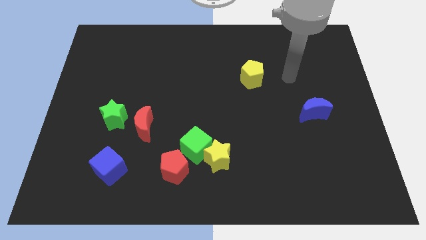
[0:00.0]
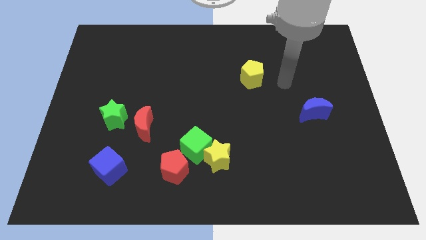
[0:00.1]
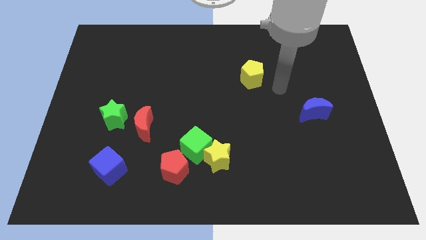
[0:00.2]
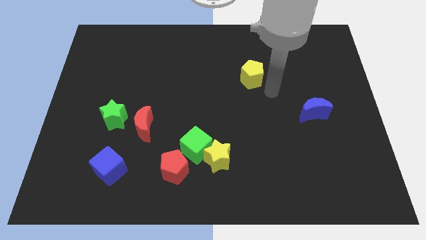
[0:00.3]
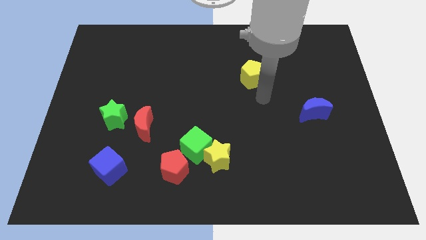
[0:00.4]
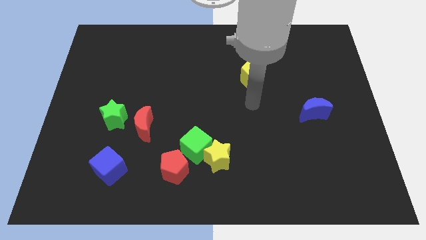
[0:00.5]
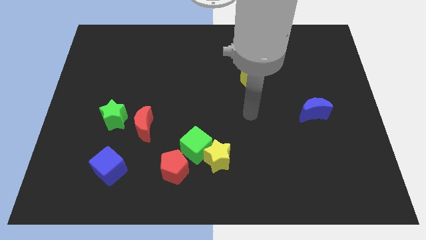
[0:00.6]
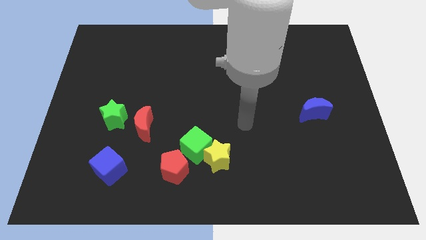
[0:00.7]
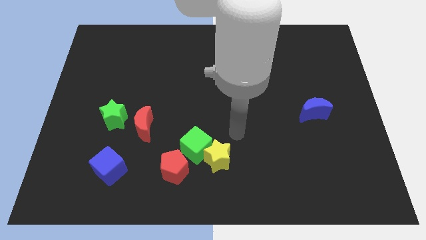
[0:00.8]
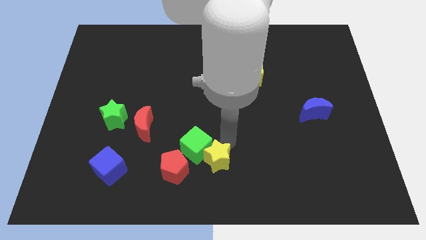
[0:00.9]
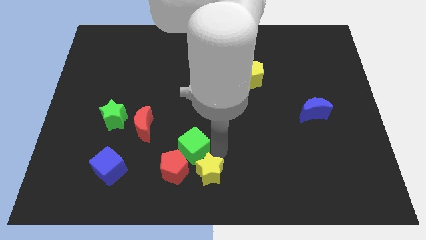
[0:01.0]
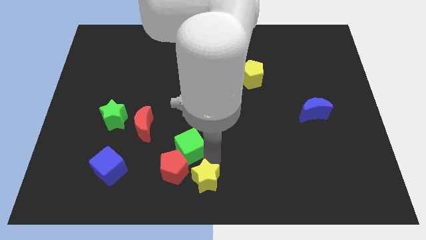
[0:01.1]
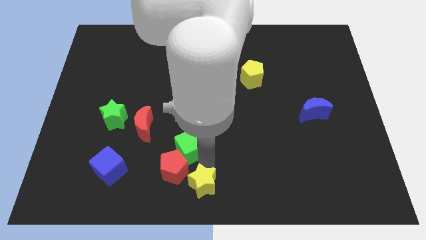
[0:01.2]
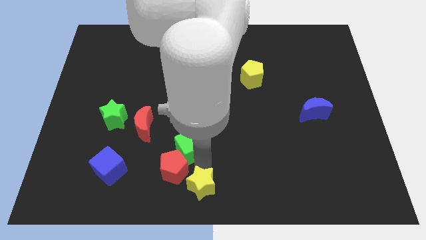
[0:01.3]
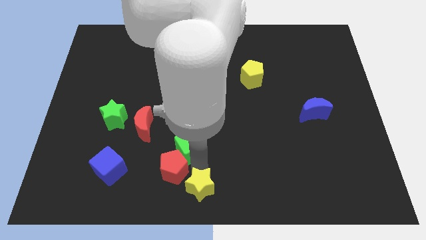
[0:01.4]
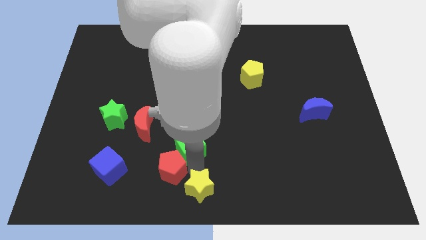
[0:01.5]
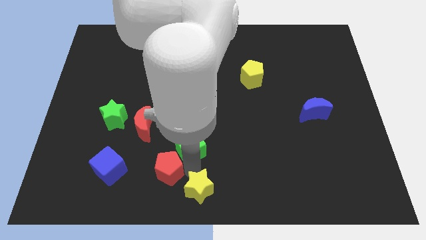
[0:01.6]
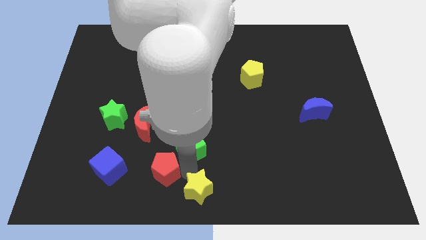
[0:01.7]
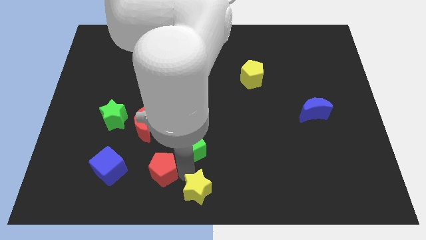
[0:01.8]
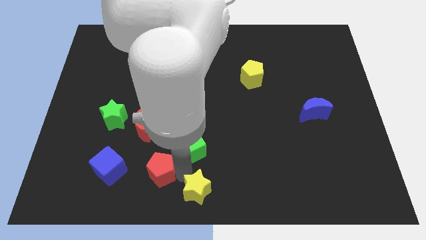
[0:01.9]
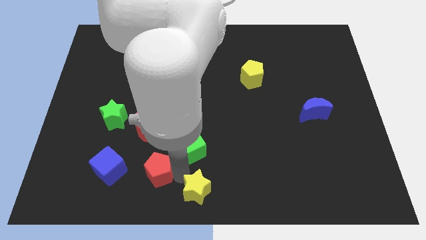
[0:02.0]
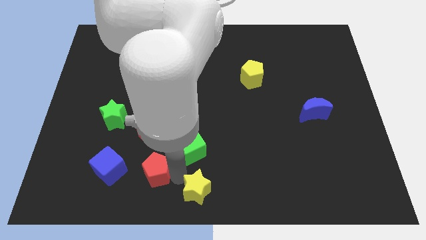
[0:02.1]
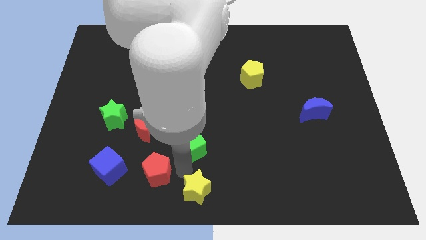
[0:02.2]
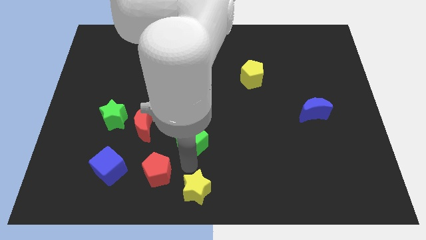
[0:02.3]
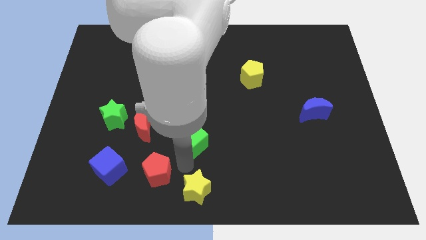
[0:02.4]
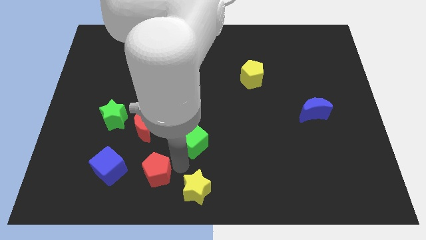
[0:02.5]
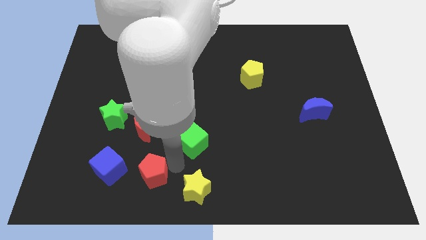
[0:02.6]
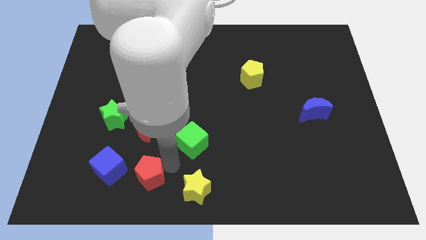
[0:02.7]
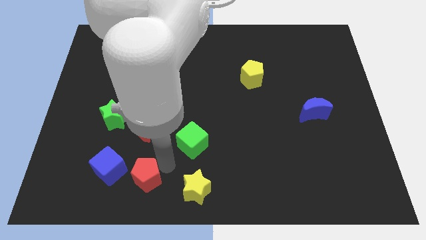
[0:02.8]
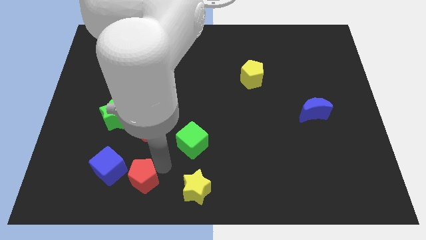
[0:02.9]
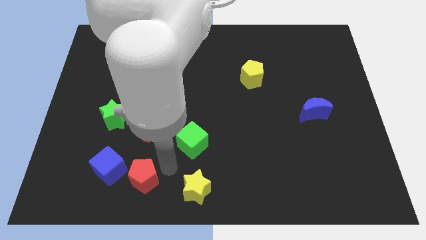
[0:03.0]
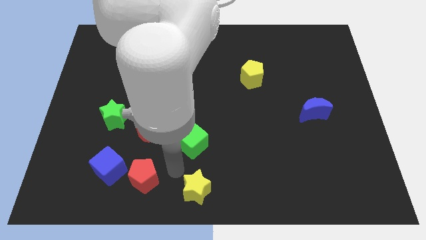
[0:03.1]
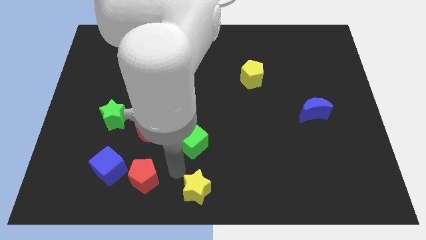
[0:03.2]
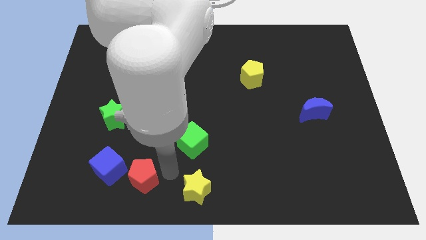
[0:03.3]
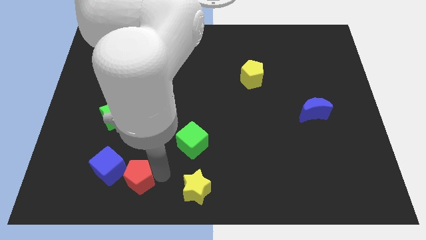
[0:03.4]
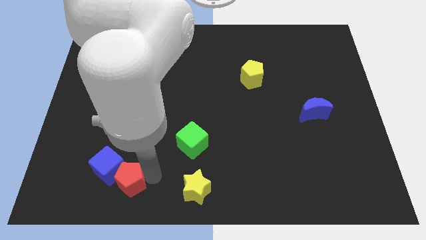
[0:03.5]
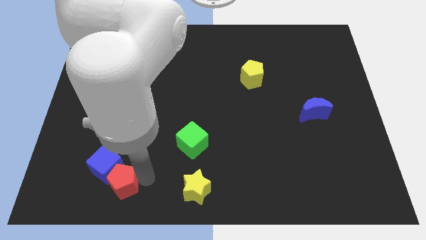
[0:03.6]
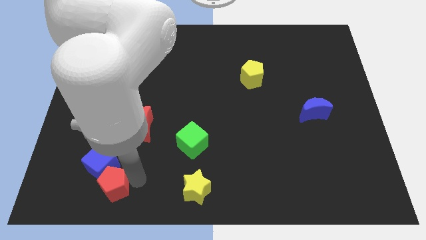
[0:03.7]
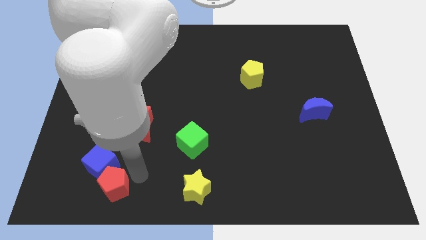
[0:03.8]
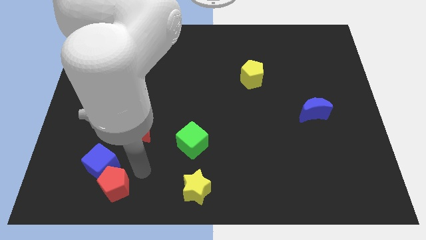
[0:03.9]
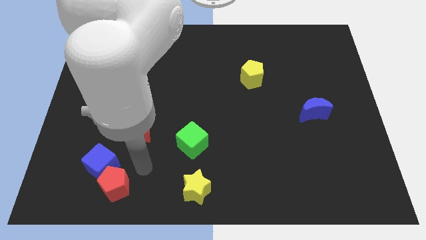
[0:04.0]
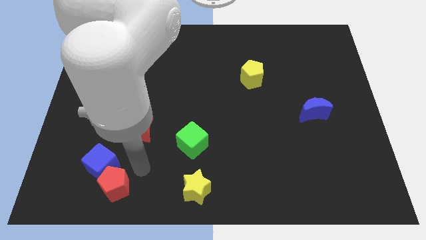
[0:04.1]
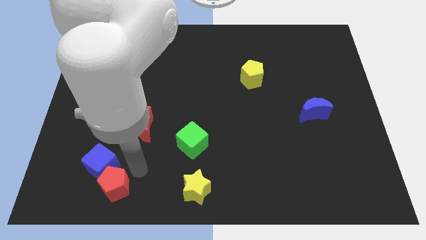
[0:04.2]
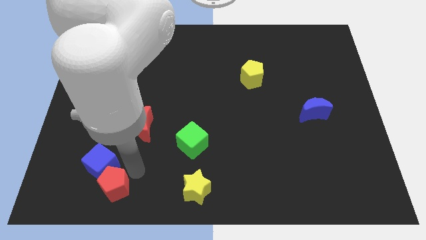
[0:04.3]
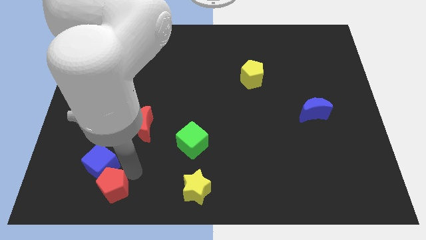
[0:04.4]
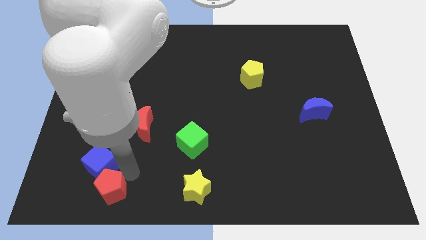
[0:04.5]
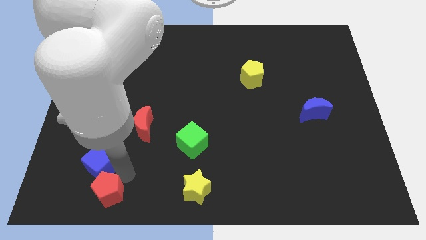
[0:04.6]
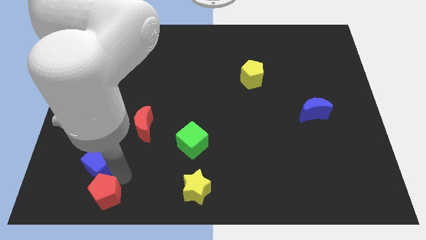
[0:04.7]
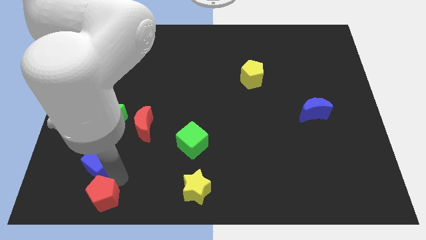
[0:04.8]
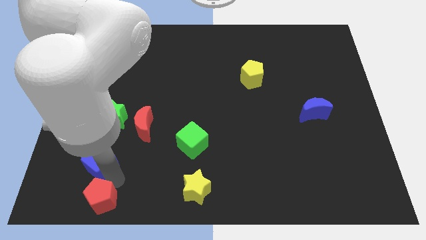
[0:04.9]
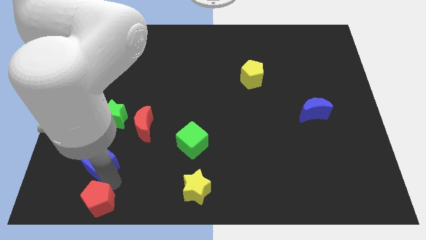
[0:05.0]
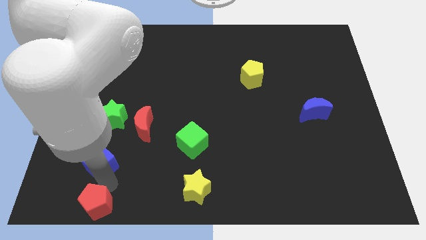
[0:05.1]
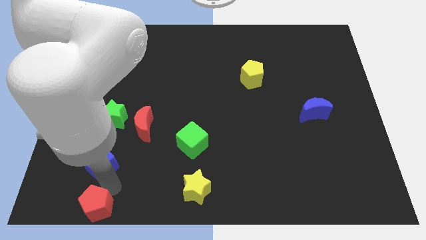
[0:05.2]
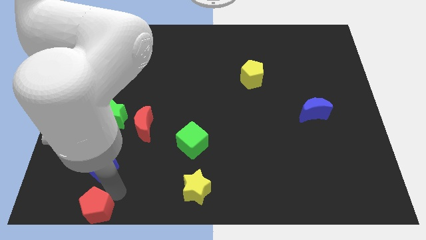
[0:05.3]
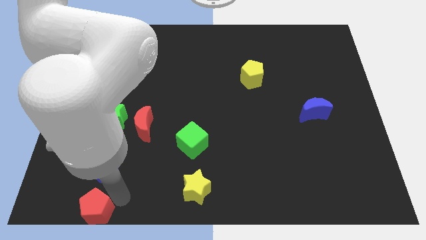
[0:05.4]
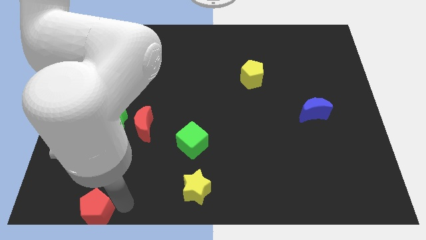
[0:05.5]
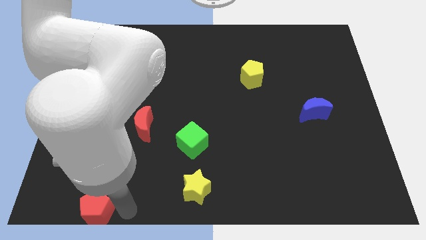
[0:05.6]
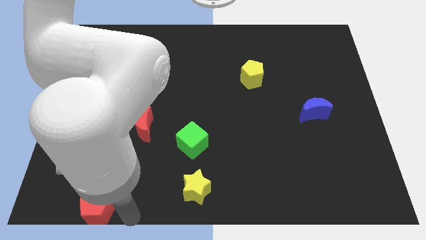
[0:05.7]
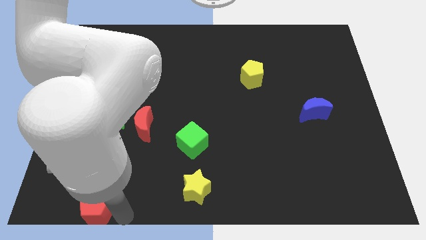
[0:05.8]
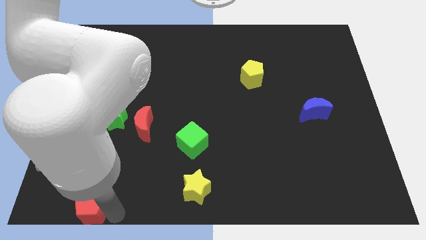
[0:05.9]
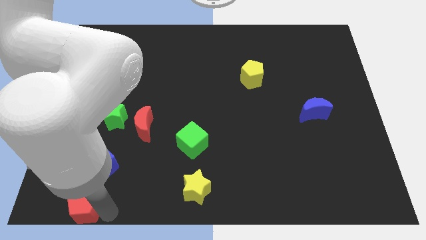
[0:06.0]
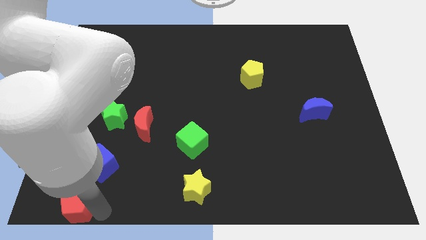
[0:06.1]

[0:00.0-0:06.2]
push the red pentagon to the bottom left of the board

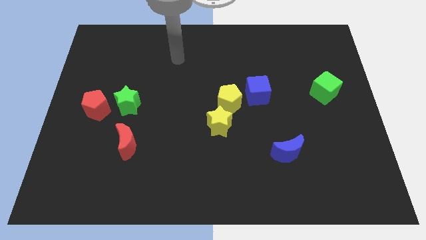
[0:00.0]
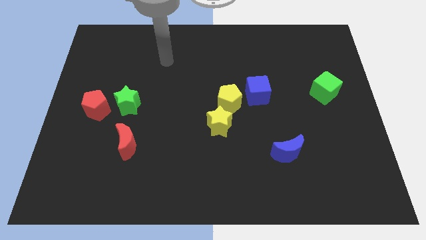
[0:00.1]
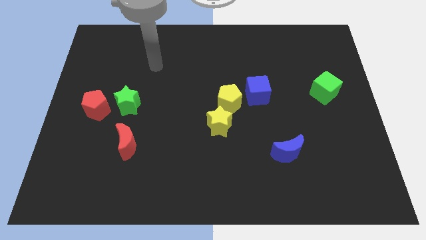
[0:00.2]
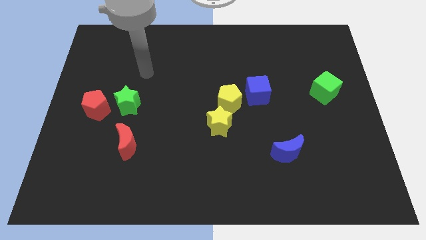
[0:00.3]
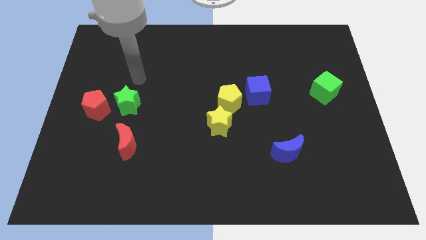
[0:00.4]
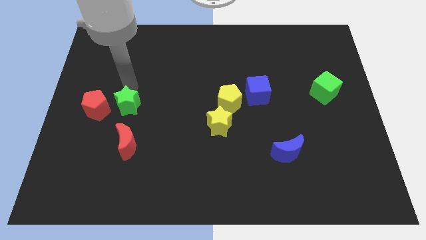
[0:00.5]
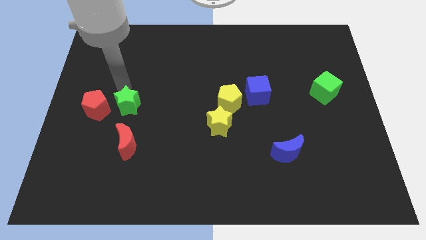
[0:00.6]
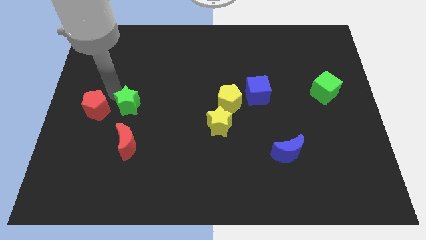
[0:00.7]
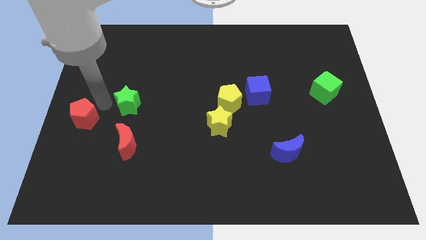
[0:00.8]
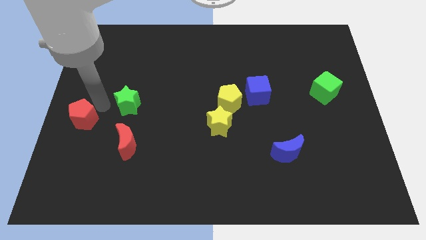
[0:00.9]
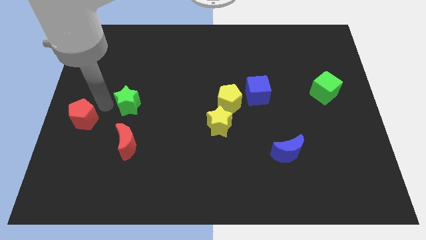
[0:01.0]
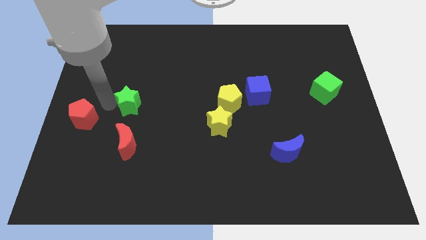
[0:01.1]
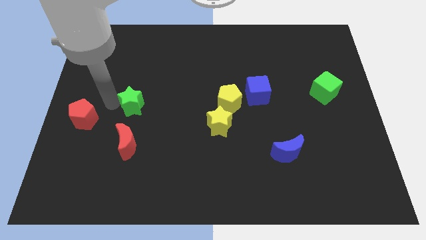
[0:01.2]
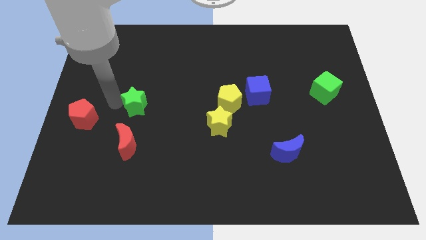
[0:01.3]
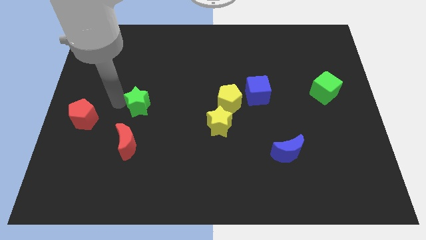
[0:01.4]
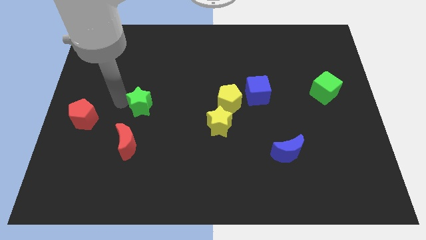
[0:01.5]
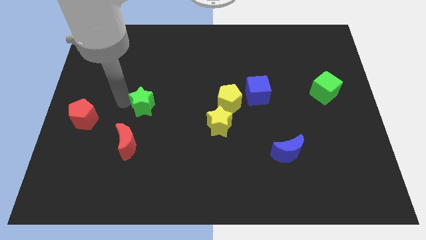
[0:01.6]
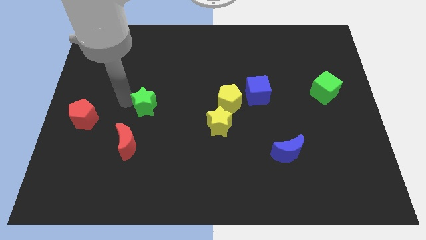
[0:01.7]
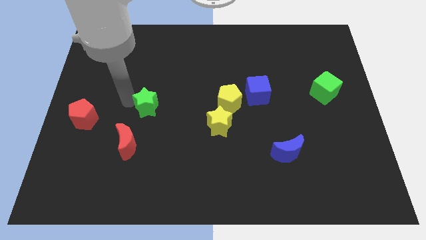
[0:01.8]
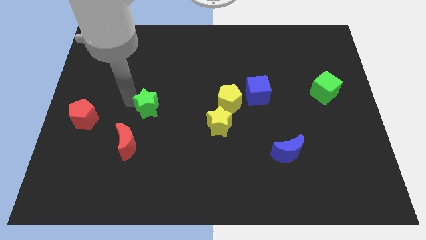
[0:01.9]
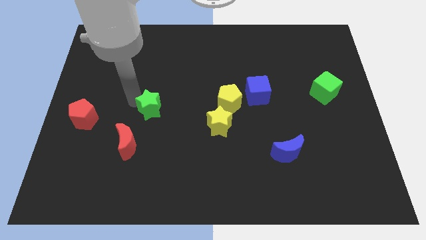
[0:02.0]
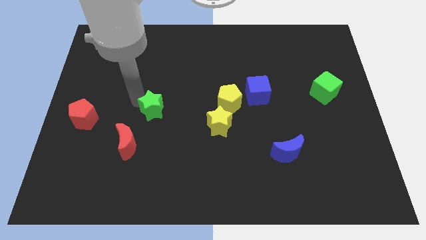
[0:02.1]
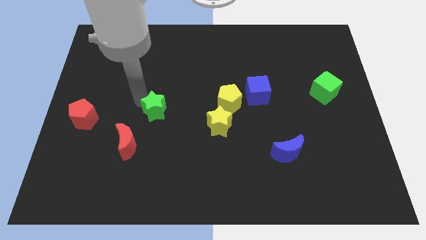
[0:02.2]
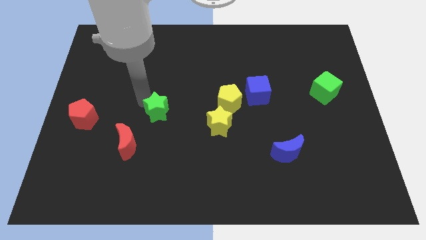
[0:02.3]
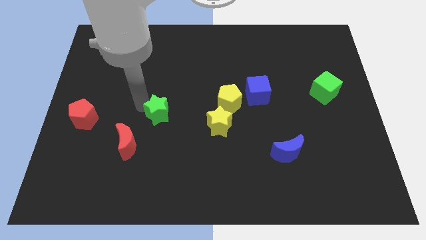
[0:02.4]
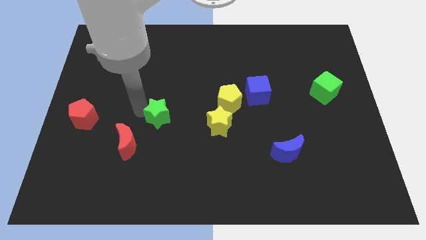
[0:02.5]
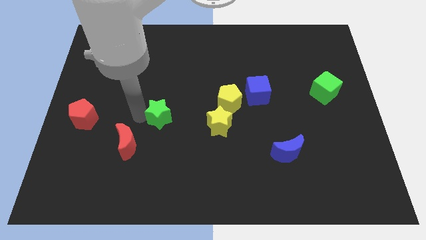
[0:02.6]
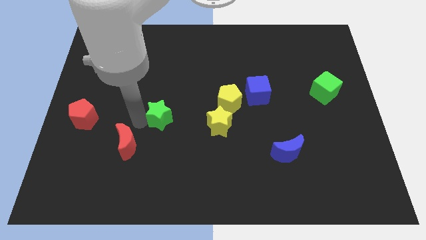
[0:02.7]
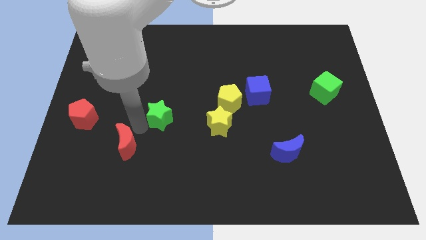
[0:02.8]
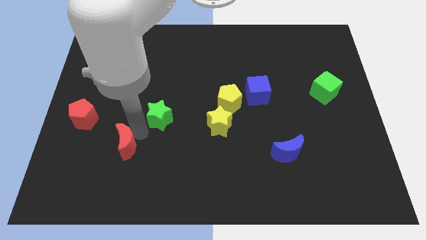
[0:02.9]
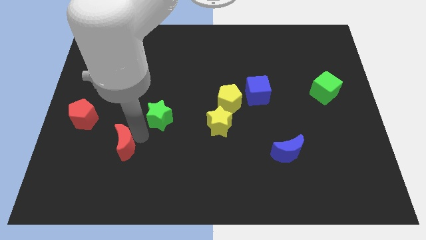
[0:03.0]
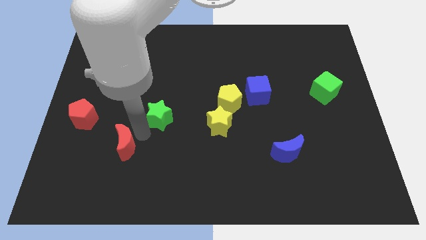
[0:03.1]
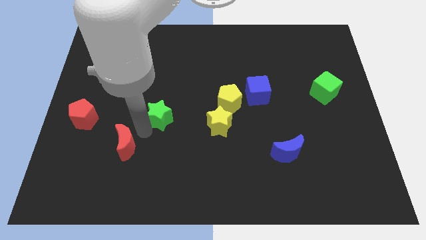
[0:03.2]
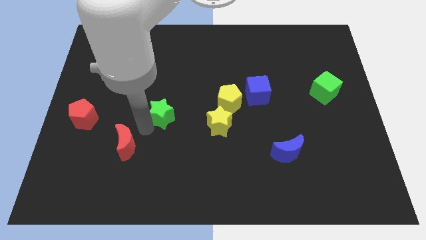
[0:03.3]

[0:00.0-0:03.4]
put the green star to the middle of the board
